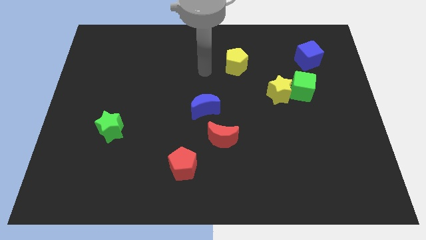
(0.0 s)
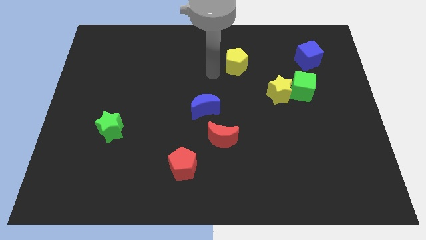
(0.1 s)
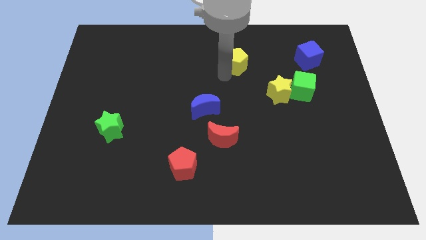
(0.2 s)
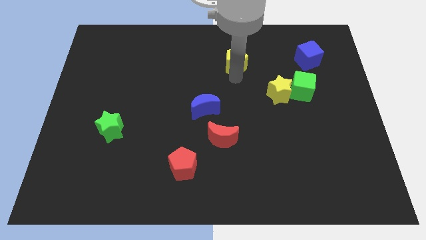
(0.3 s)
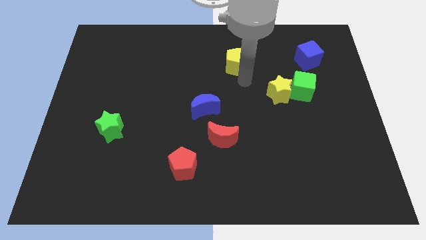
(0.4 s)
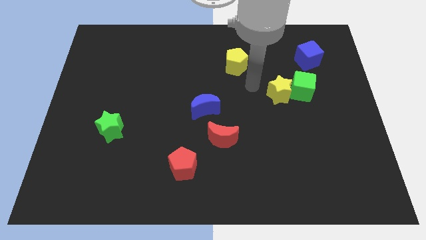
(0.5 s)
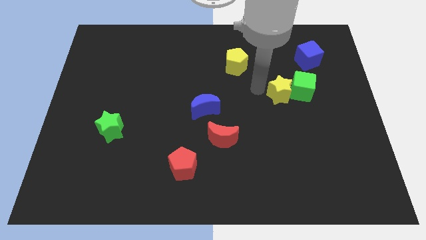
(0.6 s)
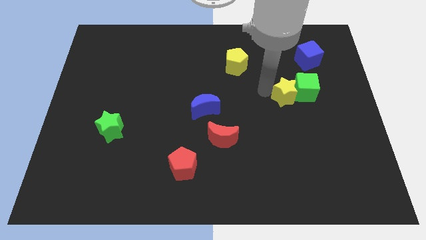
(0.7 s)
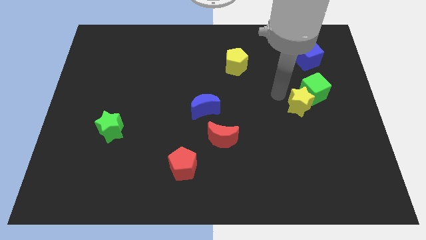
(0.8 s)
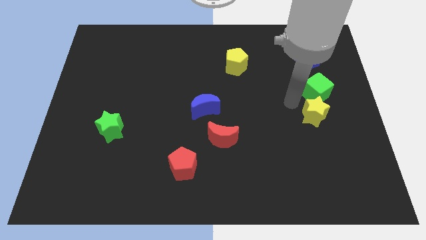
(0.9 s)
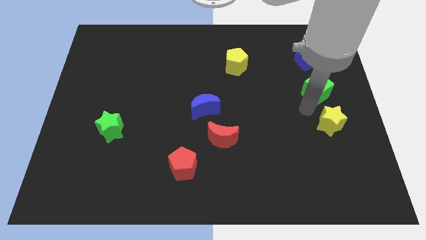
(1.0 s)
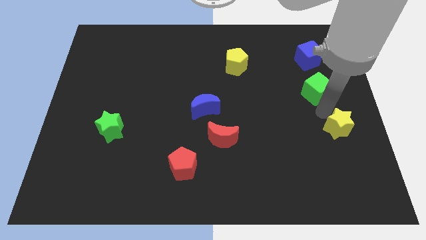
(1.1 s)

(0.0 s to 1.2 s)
separate the green cube from the yellow star

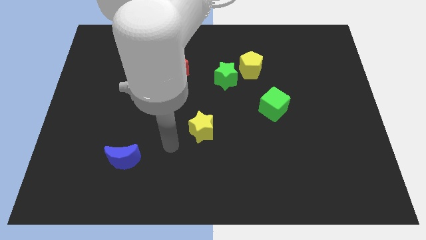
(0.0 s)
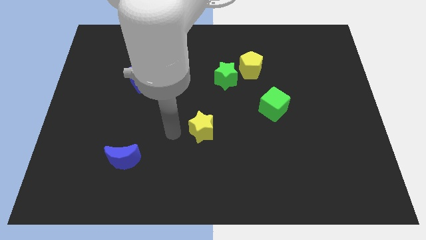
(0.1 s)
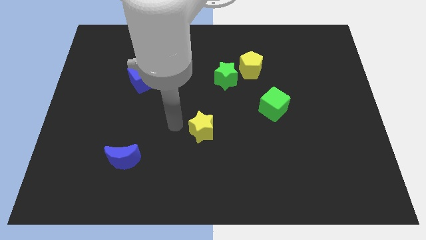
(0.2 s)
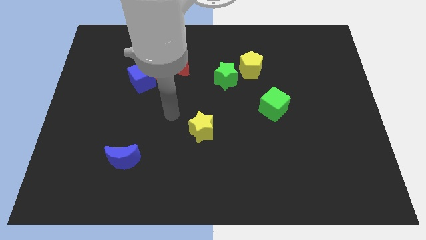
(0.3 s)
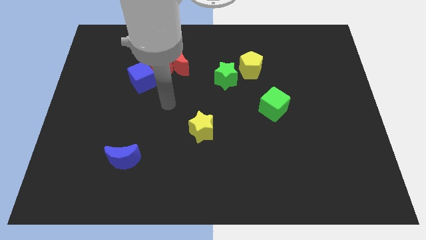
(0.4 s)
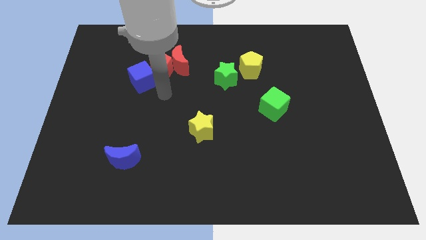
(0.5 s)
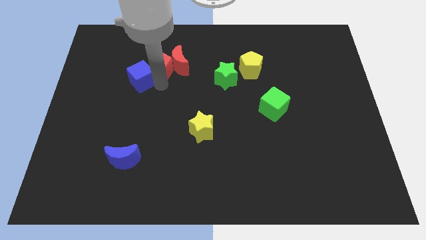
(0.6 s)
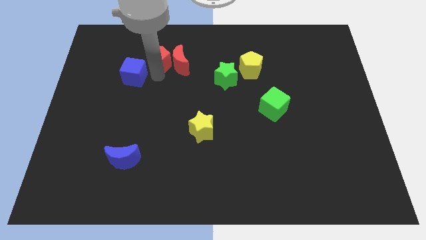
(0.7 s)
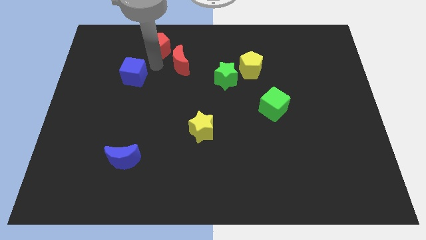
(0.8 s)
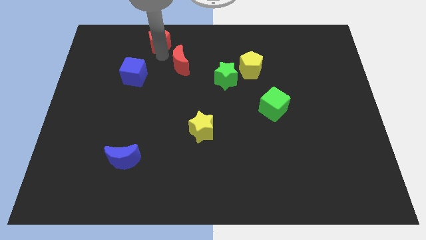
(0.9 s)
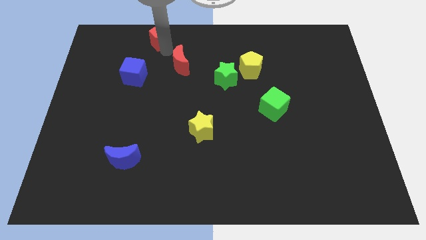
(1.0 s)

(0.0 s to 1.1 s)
pull the red moon apart from the red pentagon

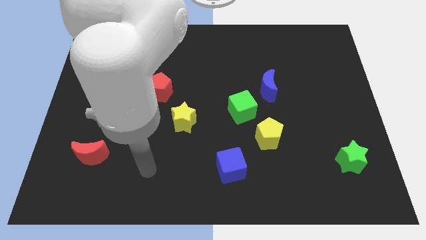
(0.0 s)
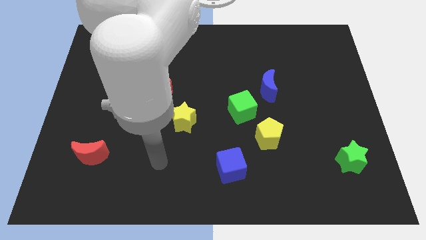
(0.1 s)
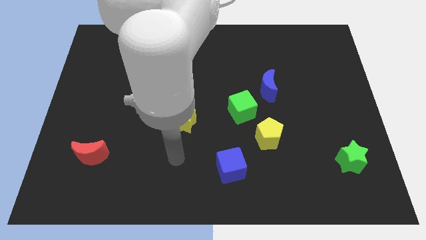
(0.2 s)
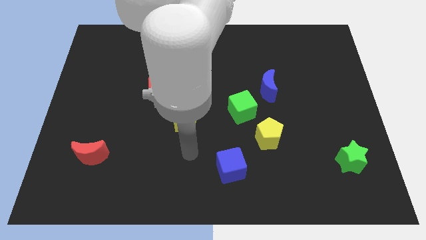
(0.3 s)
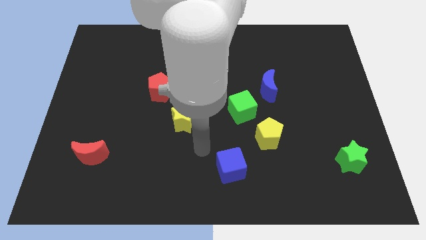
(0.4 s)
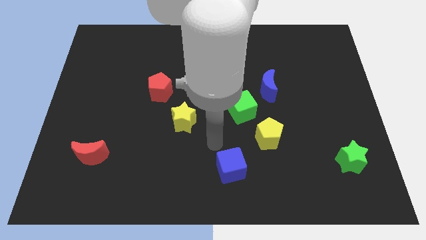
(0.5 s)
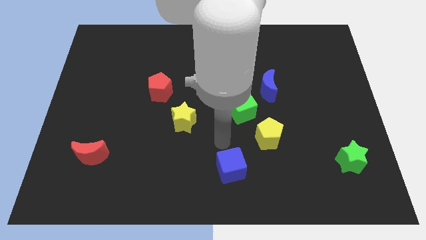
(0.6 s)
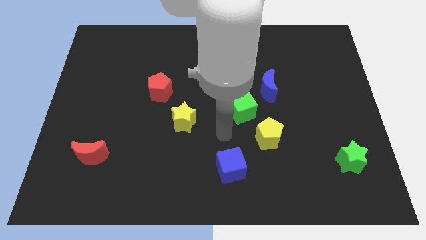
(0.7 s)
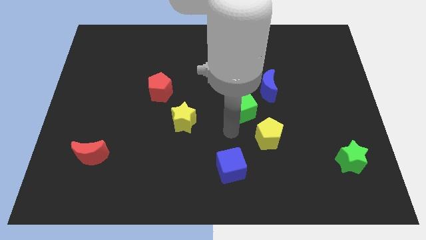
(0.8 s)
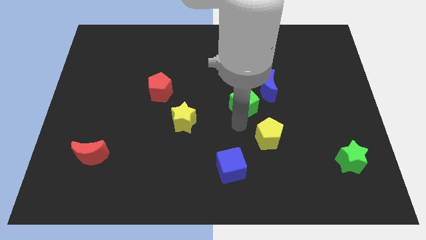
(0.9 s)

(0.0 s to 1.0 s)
pull the yellow pentagon apart from the green cube

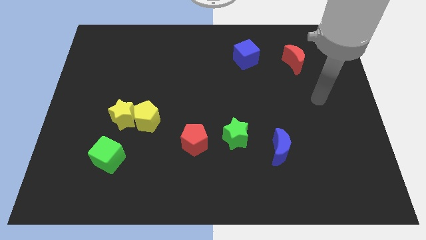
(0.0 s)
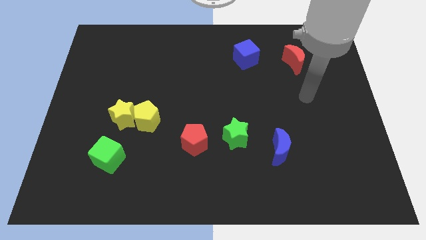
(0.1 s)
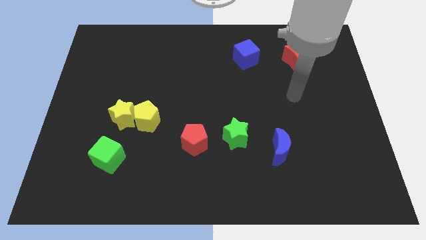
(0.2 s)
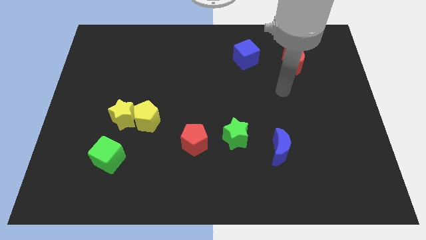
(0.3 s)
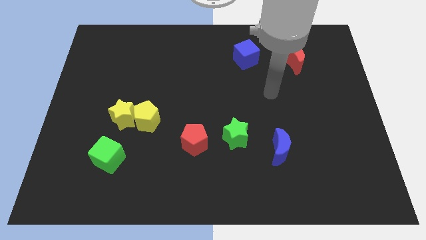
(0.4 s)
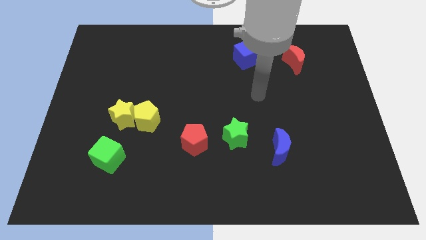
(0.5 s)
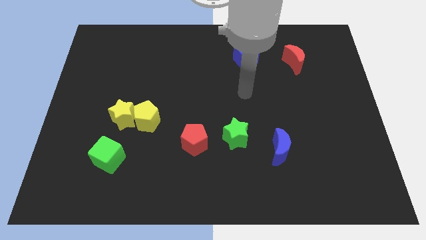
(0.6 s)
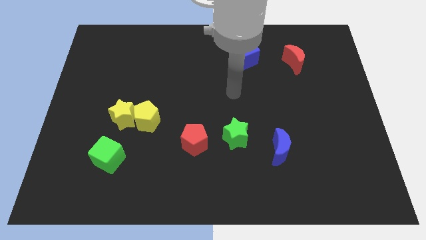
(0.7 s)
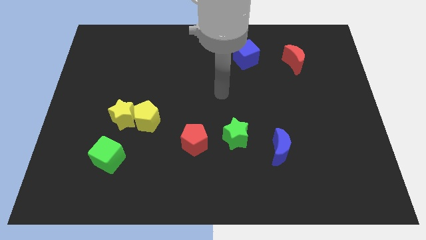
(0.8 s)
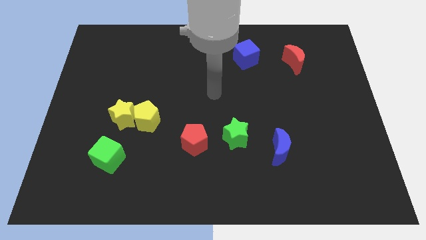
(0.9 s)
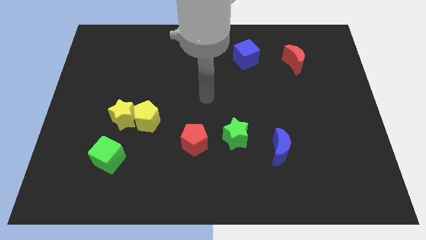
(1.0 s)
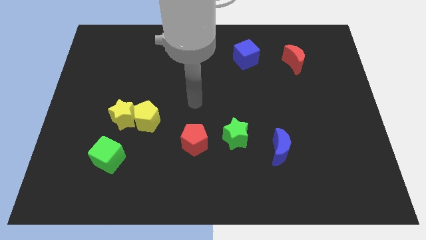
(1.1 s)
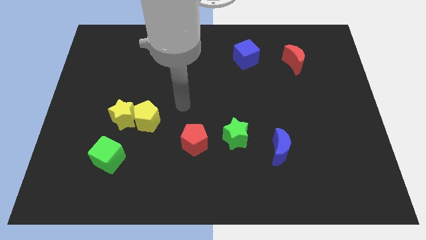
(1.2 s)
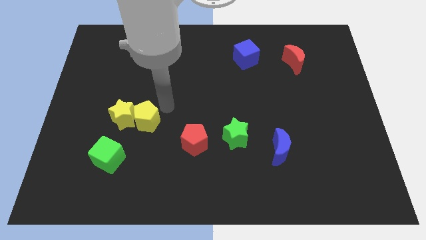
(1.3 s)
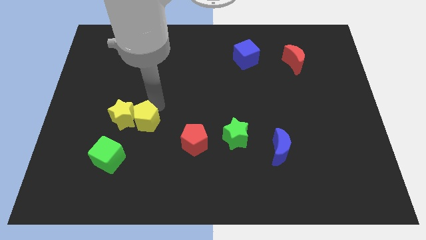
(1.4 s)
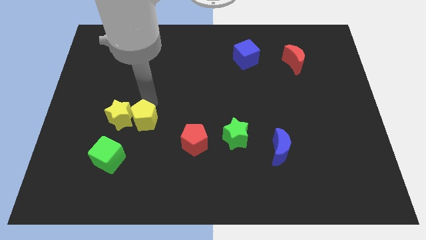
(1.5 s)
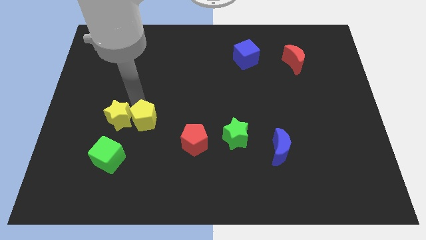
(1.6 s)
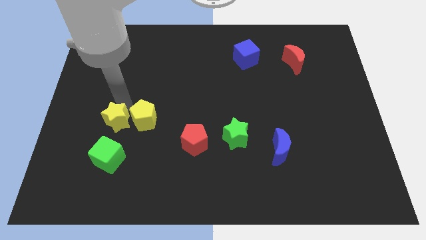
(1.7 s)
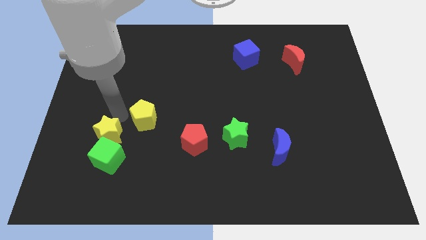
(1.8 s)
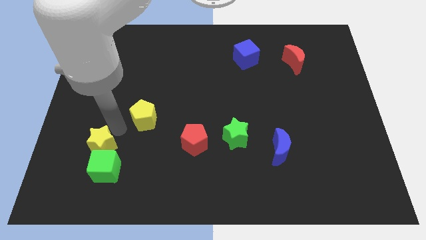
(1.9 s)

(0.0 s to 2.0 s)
move the yellow pentagon away from the yellow star

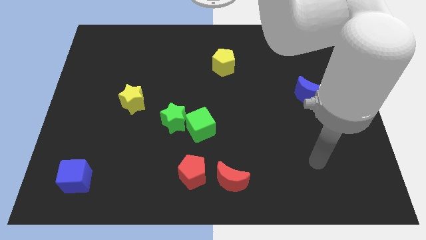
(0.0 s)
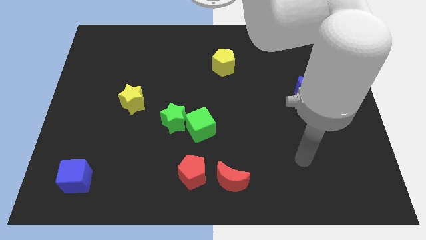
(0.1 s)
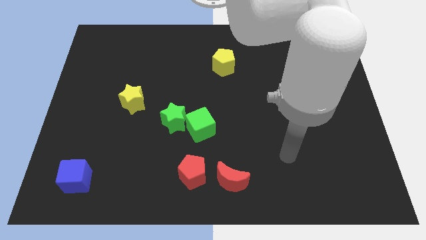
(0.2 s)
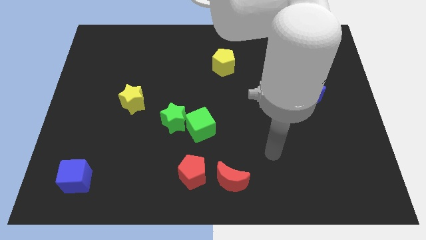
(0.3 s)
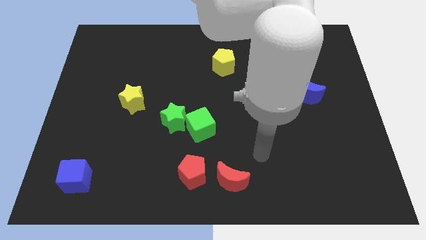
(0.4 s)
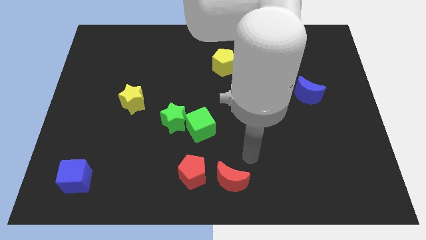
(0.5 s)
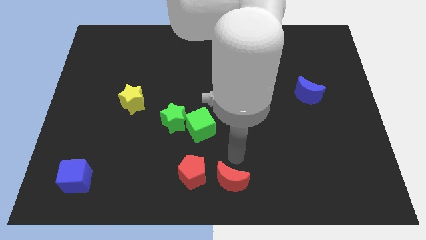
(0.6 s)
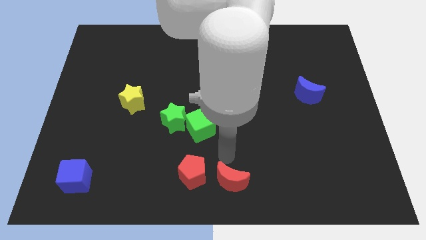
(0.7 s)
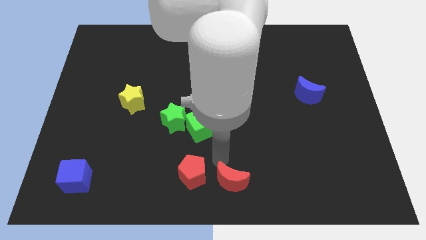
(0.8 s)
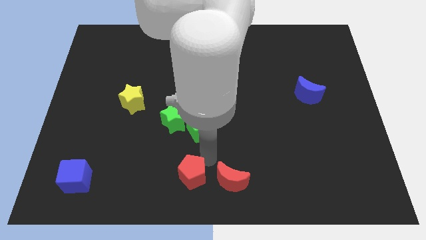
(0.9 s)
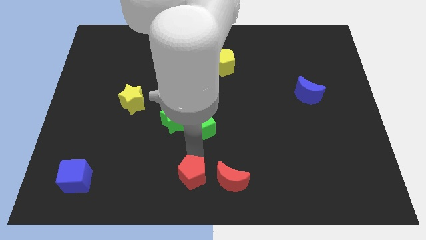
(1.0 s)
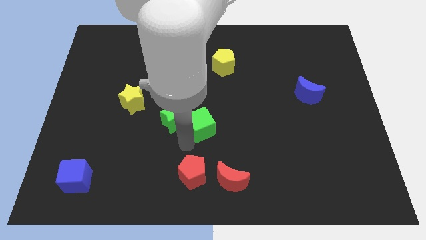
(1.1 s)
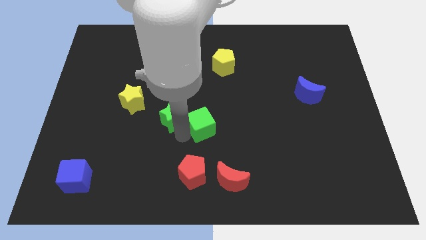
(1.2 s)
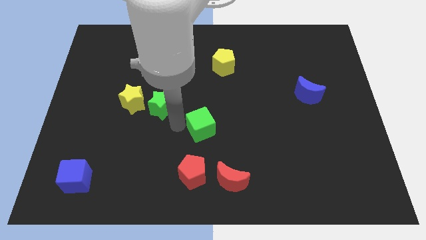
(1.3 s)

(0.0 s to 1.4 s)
move the green cube away from the green star

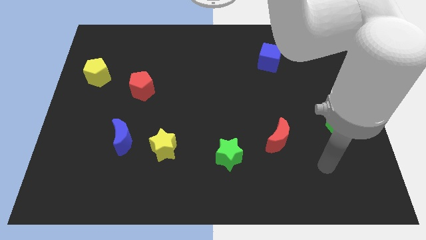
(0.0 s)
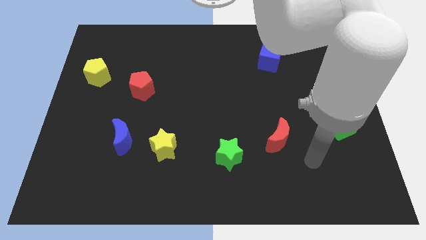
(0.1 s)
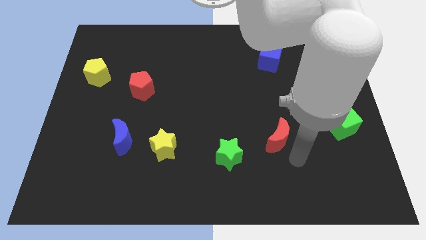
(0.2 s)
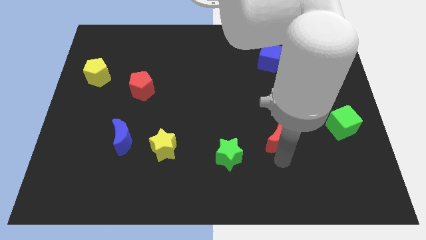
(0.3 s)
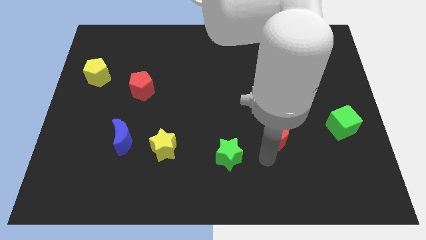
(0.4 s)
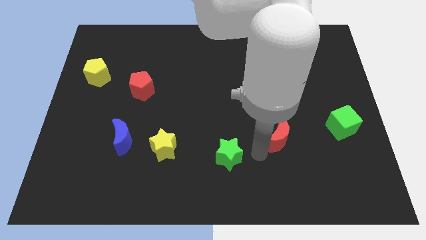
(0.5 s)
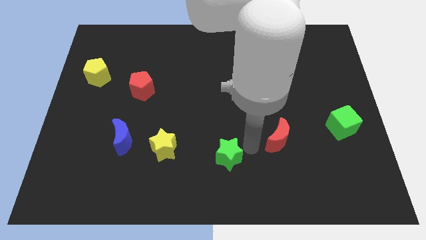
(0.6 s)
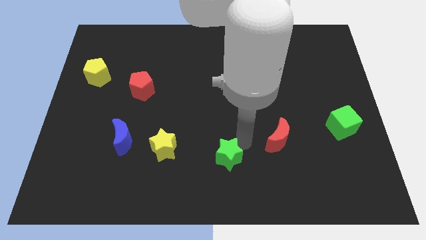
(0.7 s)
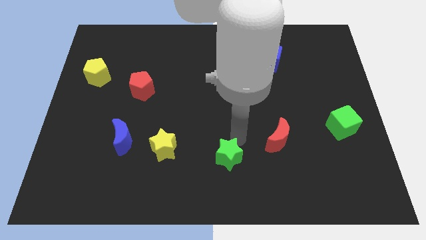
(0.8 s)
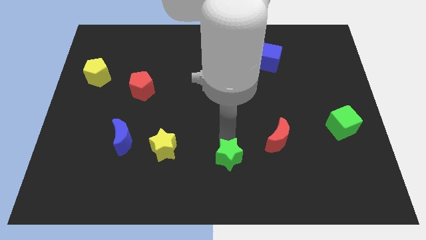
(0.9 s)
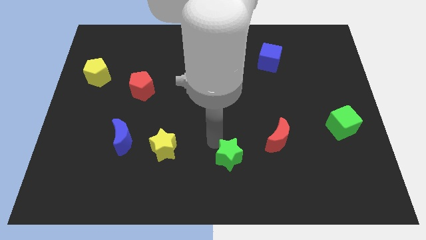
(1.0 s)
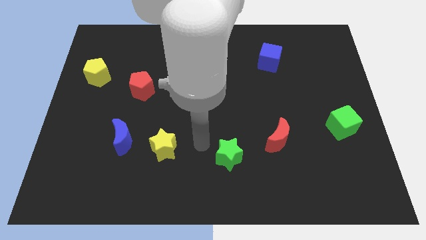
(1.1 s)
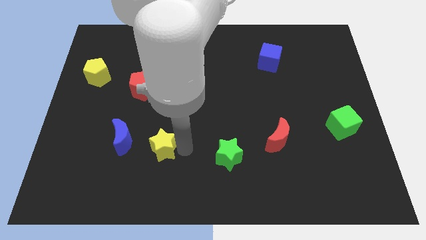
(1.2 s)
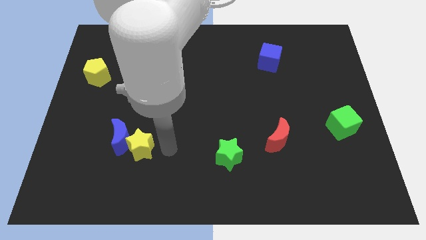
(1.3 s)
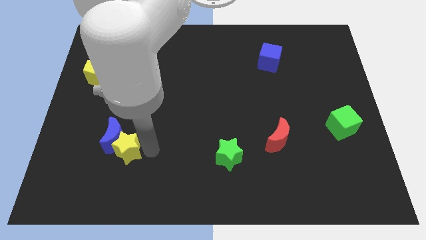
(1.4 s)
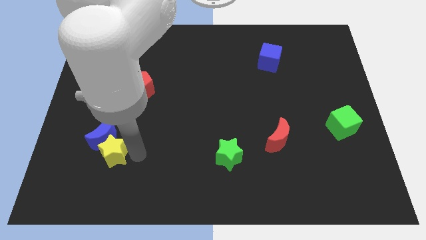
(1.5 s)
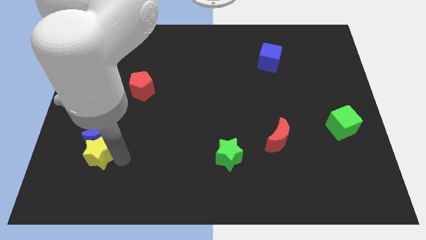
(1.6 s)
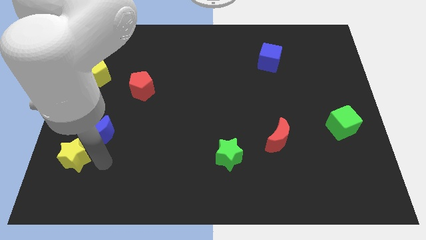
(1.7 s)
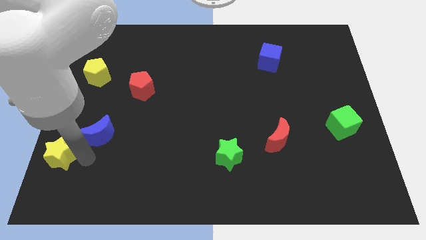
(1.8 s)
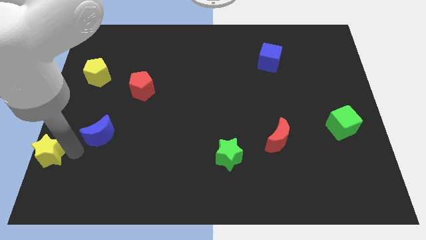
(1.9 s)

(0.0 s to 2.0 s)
separate the blue moon from the yellow star

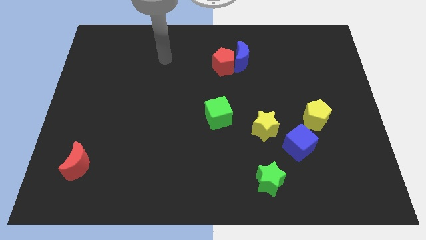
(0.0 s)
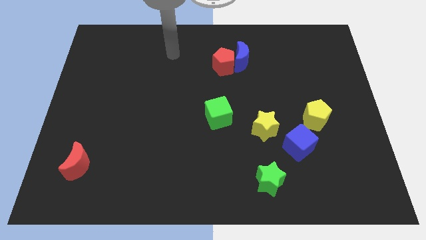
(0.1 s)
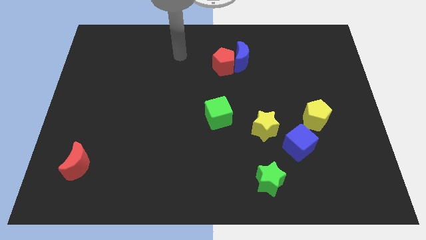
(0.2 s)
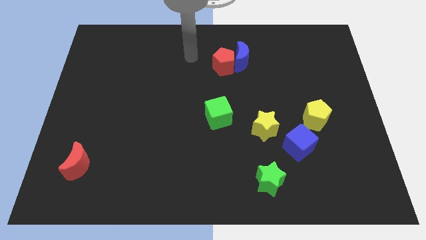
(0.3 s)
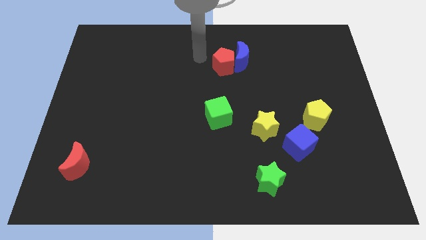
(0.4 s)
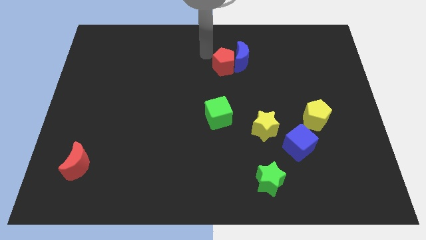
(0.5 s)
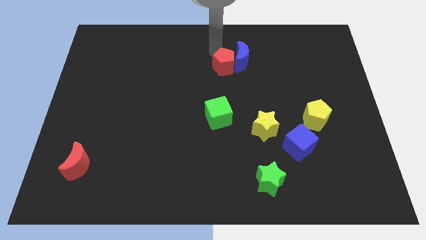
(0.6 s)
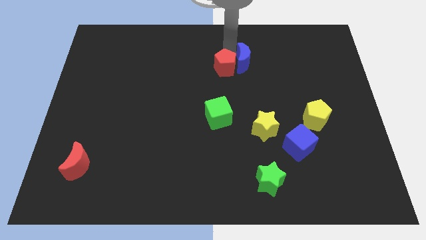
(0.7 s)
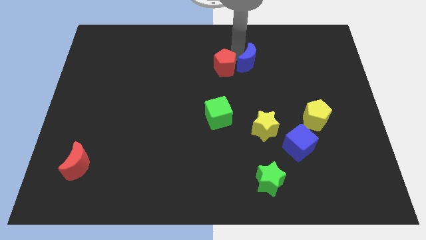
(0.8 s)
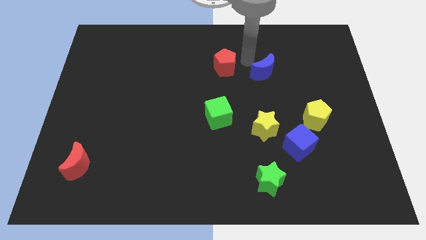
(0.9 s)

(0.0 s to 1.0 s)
pull the red pentagon apart from the blue moon
